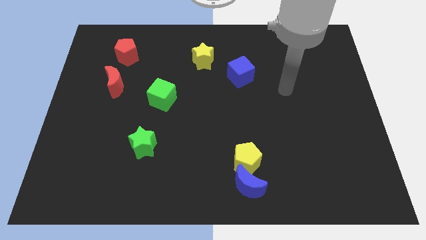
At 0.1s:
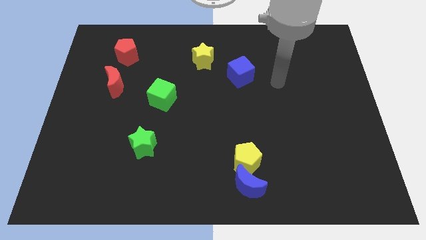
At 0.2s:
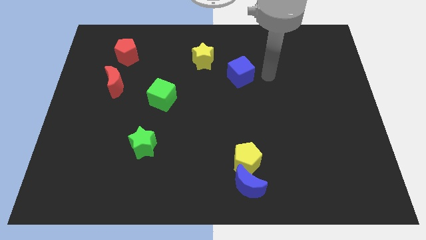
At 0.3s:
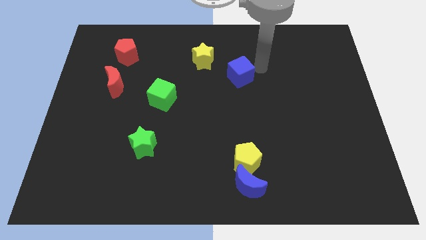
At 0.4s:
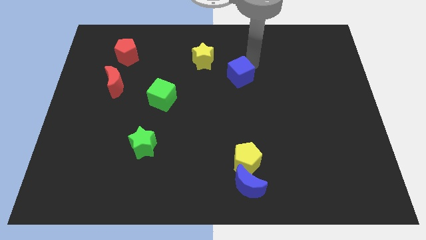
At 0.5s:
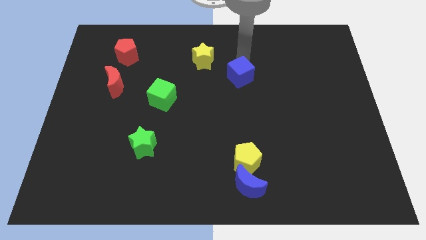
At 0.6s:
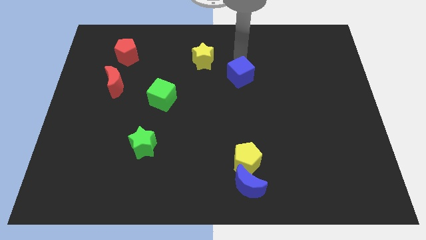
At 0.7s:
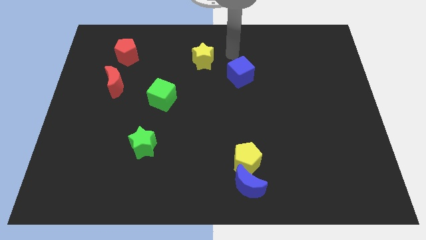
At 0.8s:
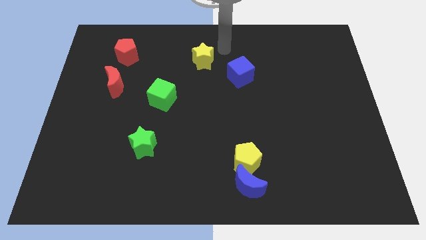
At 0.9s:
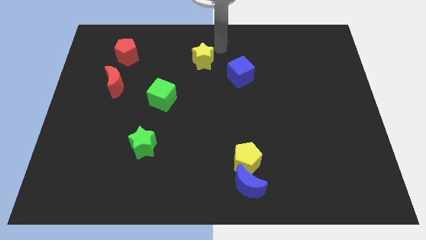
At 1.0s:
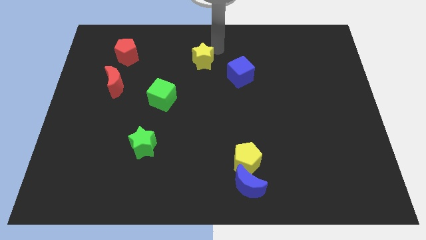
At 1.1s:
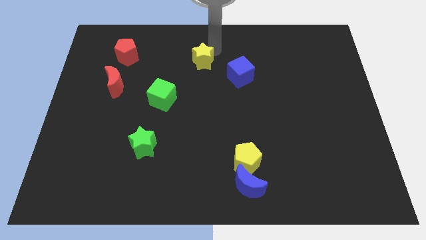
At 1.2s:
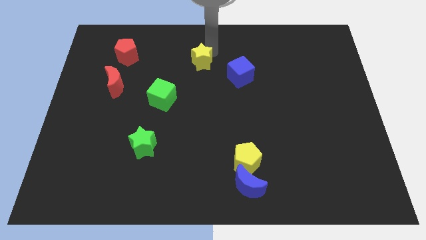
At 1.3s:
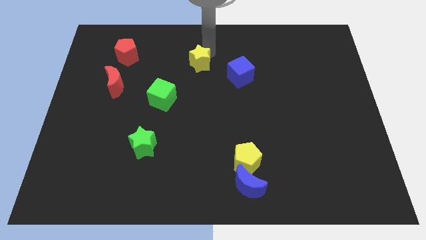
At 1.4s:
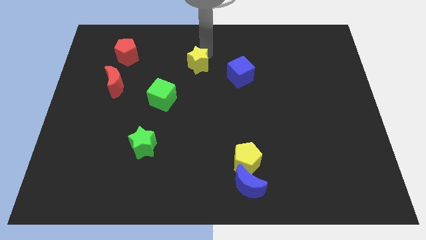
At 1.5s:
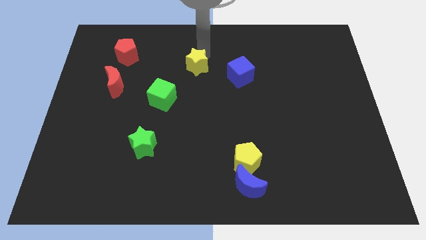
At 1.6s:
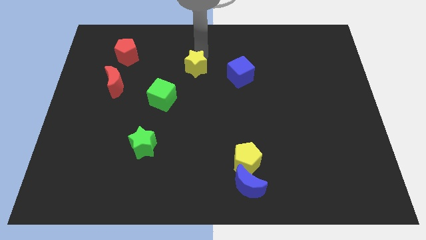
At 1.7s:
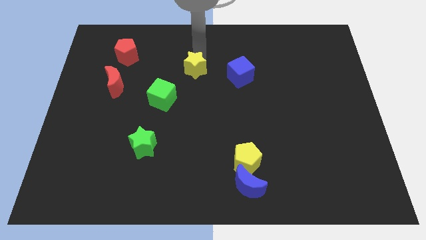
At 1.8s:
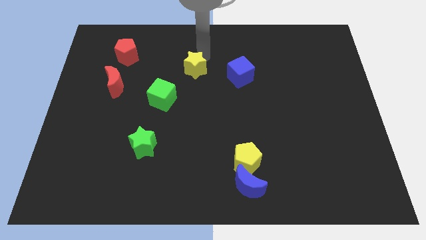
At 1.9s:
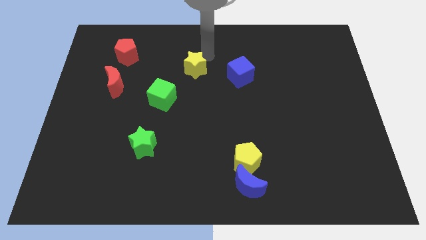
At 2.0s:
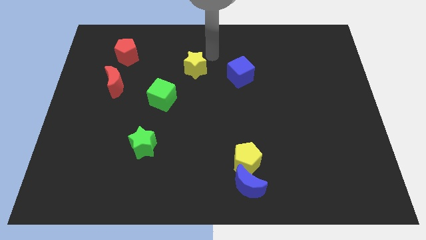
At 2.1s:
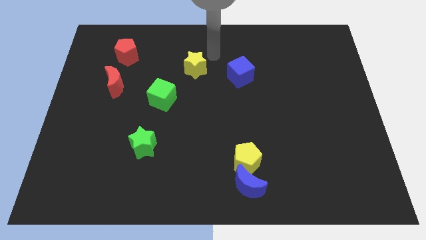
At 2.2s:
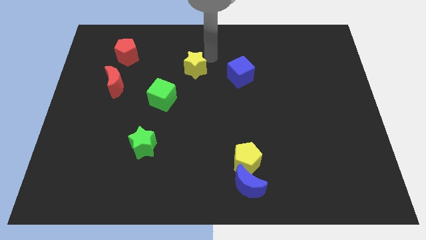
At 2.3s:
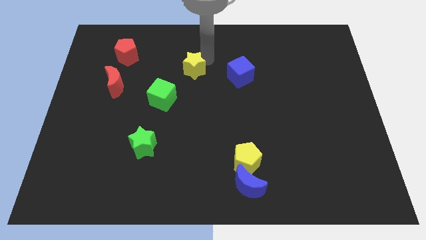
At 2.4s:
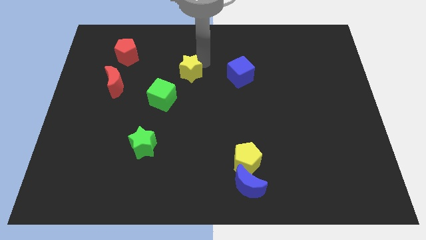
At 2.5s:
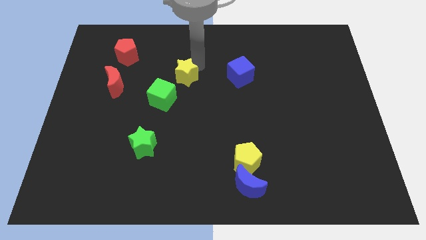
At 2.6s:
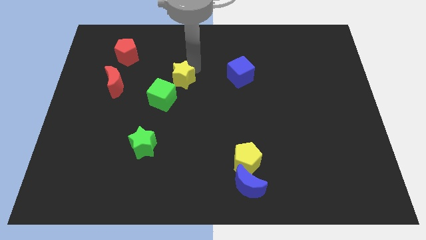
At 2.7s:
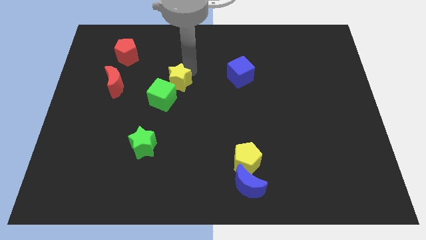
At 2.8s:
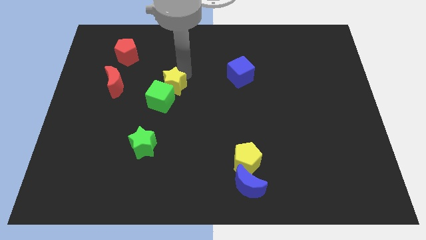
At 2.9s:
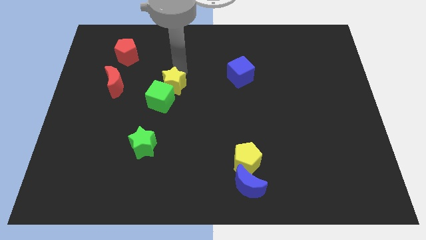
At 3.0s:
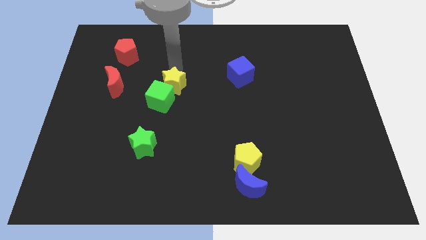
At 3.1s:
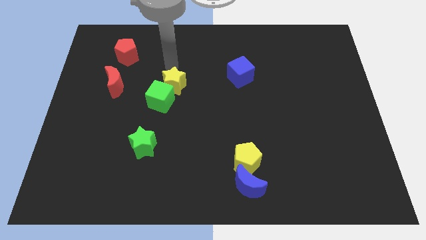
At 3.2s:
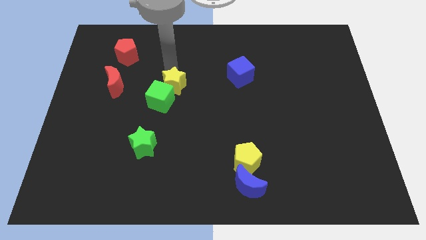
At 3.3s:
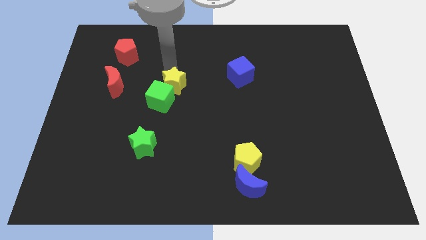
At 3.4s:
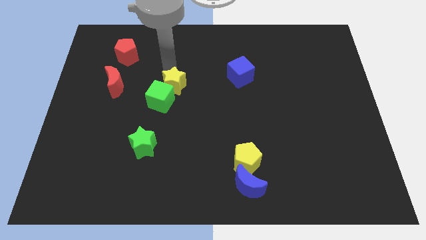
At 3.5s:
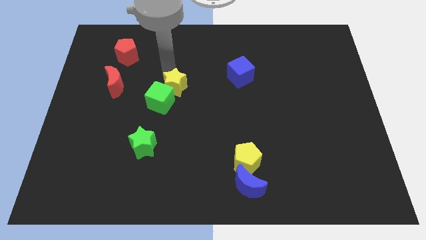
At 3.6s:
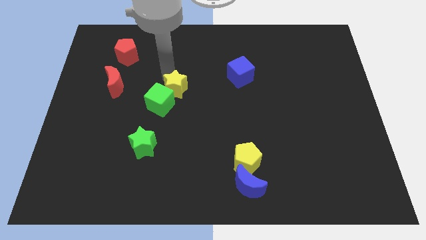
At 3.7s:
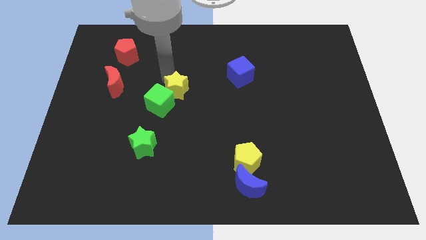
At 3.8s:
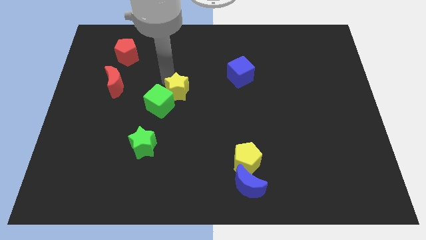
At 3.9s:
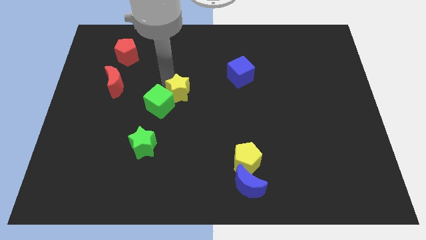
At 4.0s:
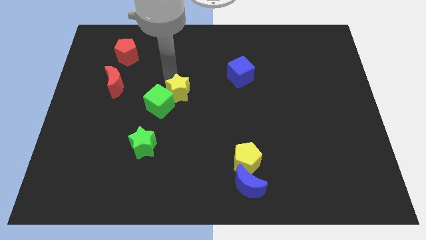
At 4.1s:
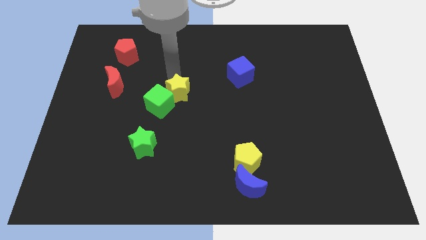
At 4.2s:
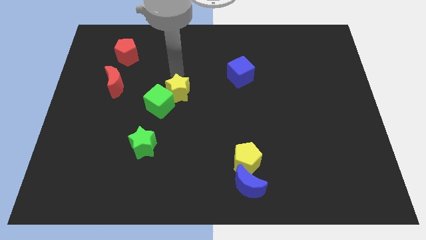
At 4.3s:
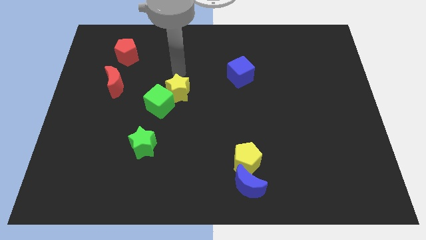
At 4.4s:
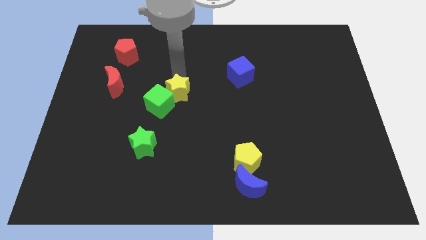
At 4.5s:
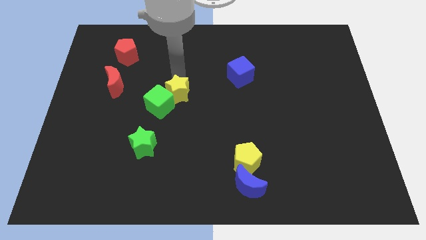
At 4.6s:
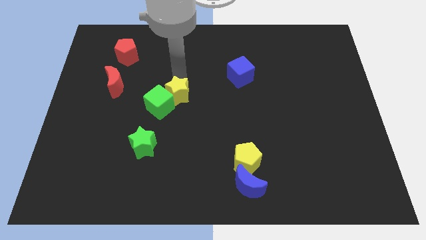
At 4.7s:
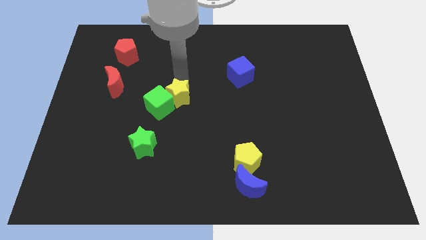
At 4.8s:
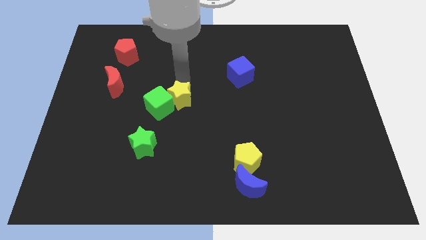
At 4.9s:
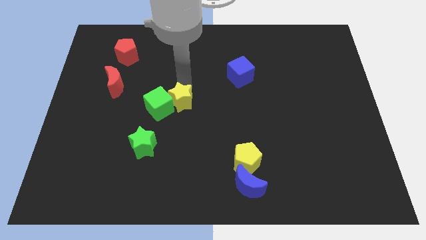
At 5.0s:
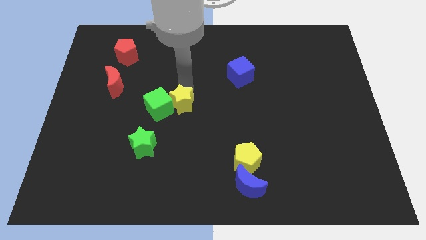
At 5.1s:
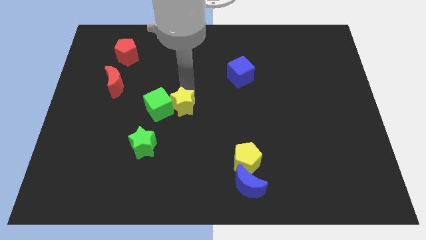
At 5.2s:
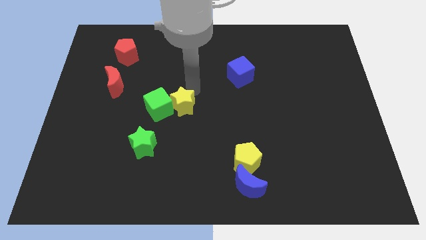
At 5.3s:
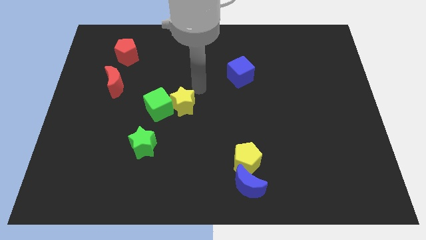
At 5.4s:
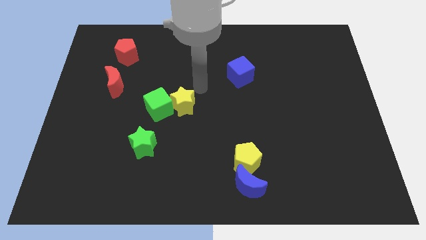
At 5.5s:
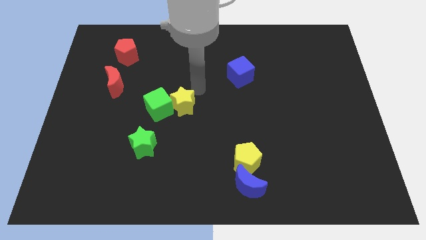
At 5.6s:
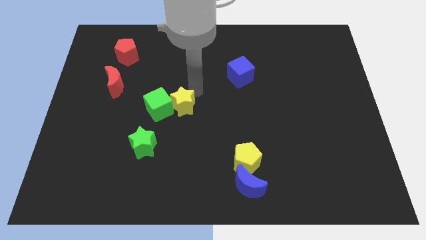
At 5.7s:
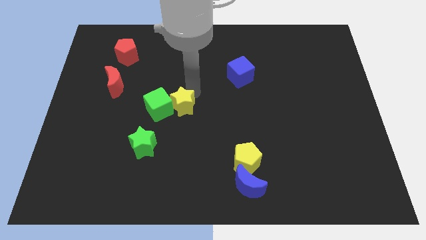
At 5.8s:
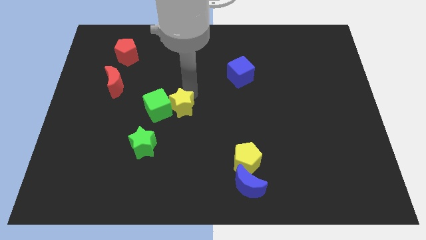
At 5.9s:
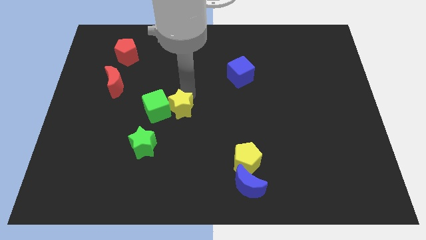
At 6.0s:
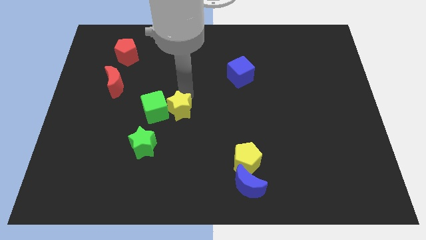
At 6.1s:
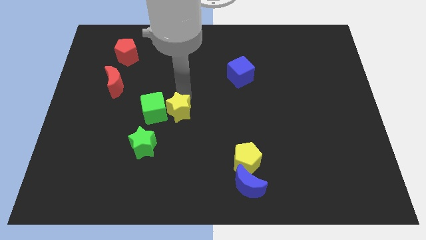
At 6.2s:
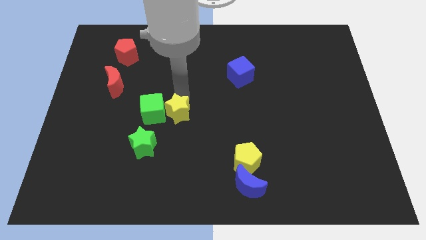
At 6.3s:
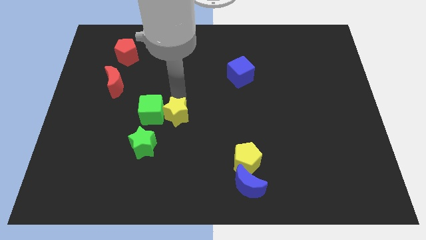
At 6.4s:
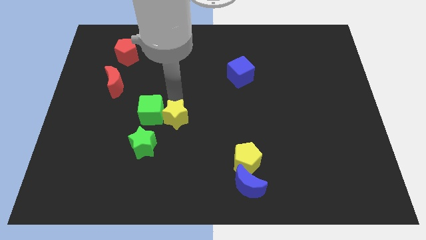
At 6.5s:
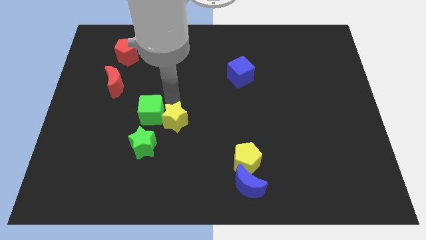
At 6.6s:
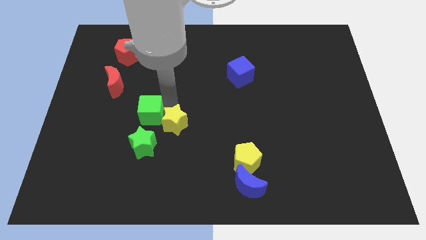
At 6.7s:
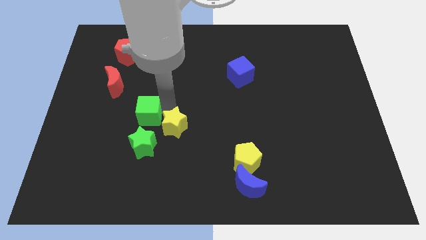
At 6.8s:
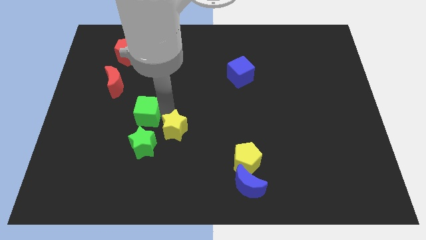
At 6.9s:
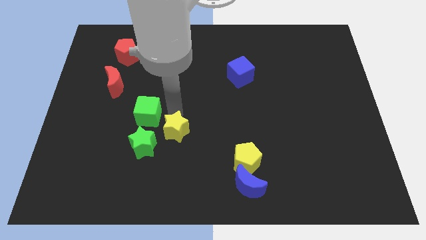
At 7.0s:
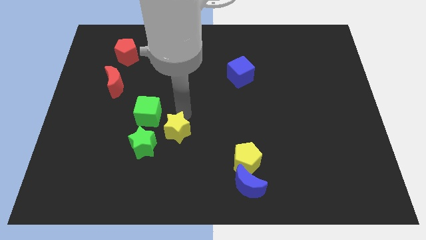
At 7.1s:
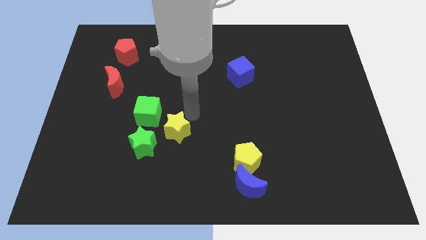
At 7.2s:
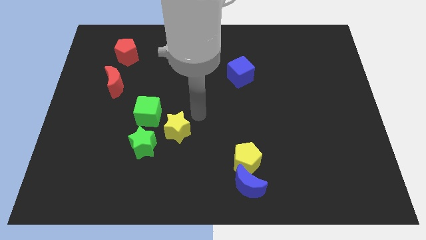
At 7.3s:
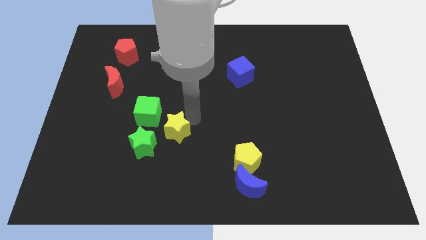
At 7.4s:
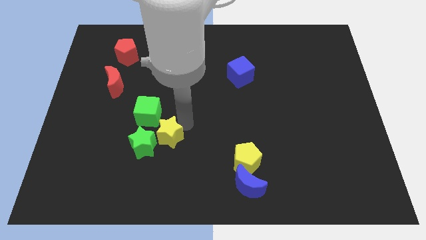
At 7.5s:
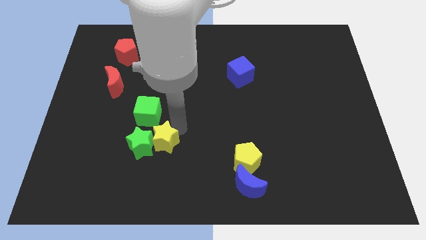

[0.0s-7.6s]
put the yellow star to the bottom side of the green cube

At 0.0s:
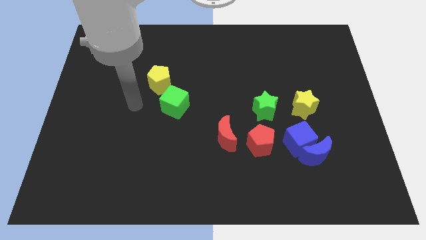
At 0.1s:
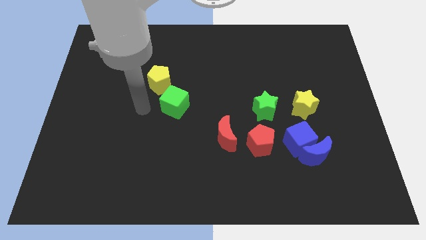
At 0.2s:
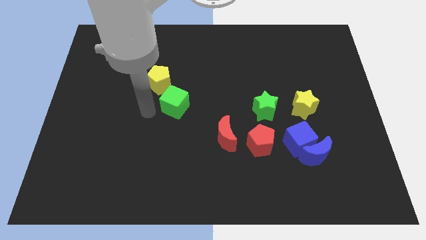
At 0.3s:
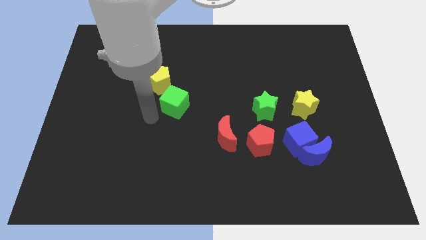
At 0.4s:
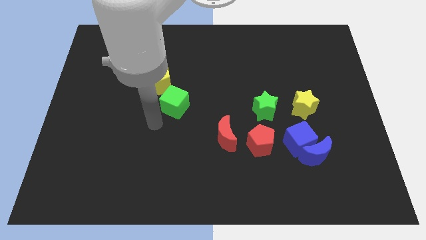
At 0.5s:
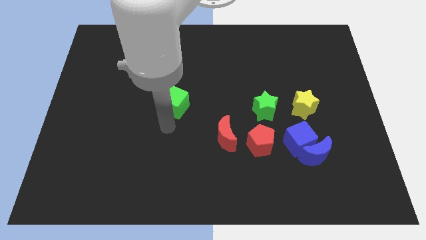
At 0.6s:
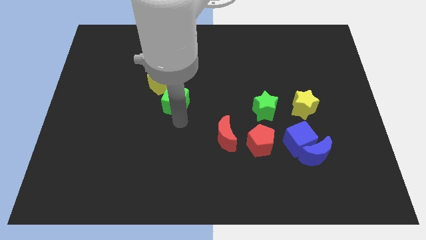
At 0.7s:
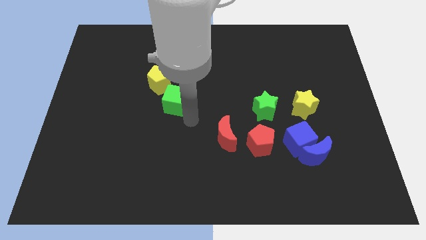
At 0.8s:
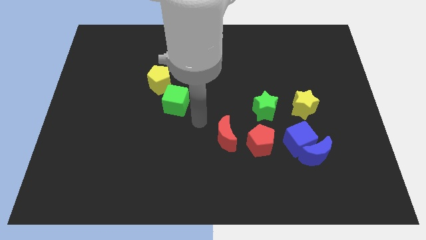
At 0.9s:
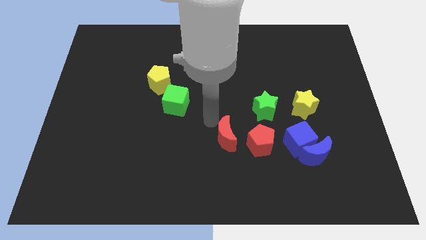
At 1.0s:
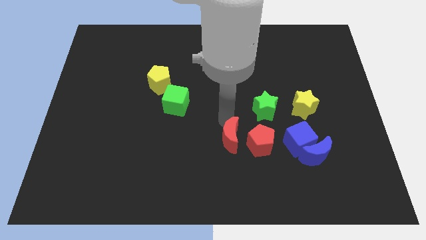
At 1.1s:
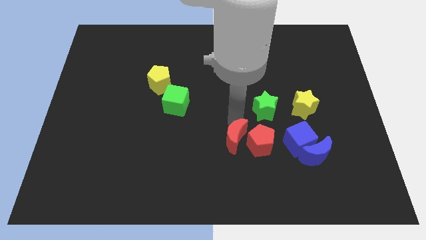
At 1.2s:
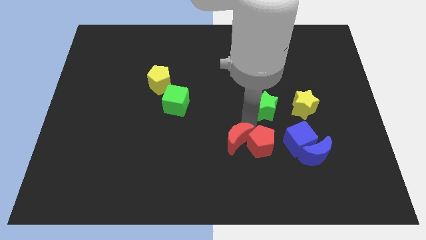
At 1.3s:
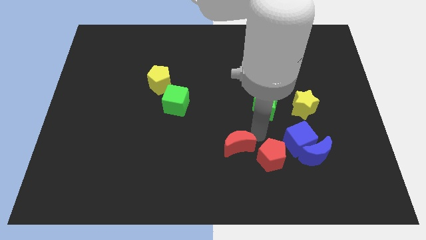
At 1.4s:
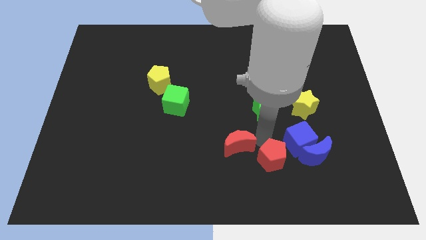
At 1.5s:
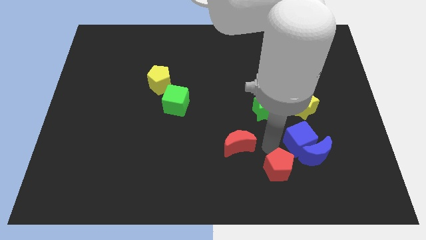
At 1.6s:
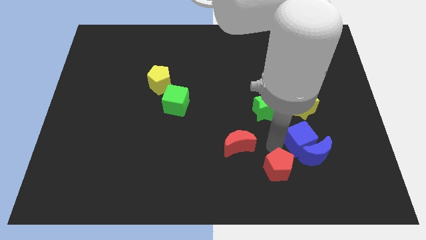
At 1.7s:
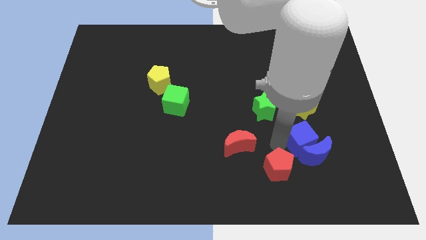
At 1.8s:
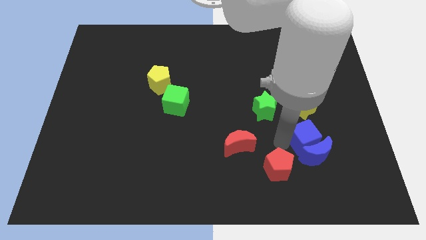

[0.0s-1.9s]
put the blue cube to the top right of the blue moon
